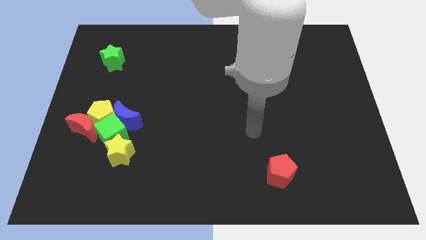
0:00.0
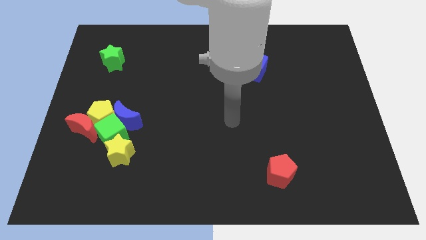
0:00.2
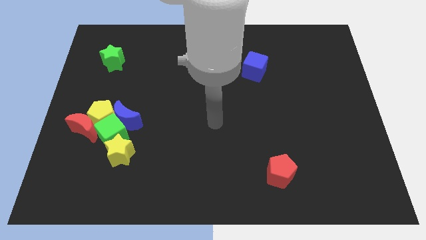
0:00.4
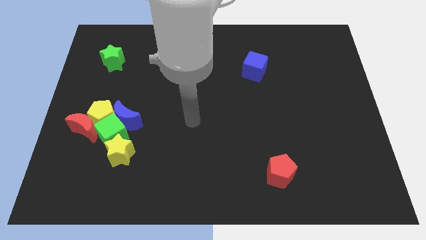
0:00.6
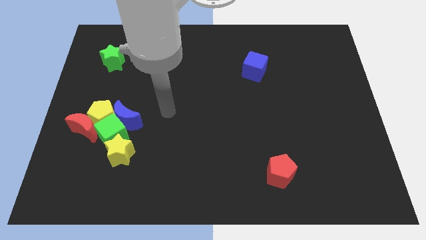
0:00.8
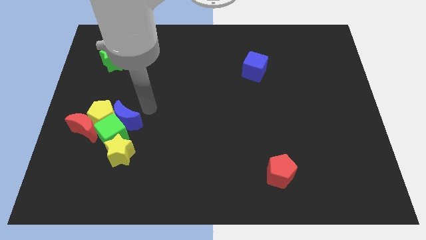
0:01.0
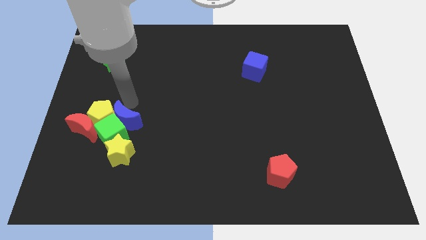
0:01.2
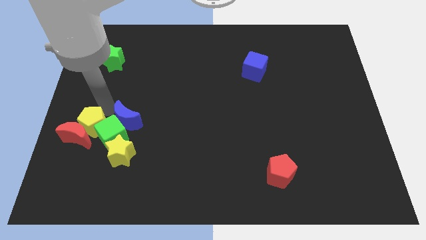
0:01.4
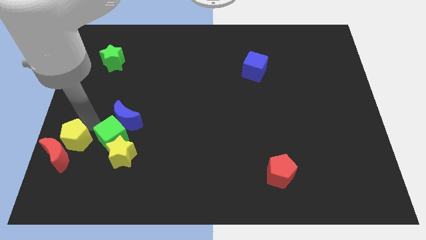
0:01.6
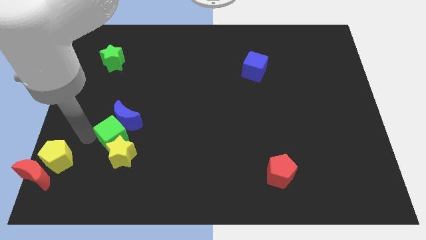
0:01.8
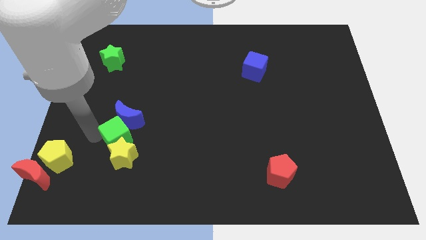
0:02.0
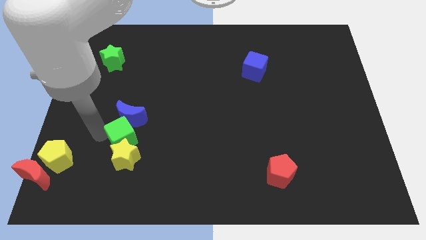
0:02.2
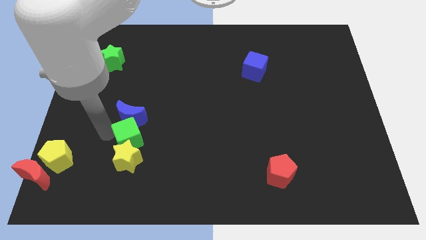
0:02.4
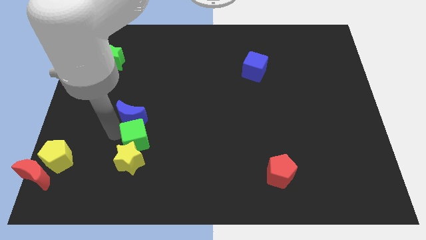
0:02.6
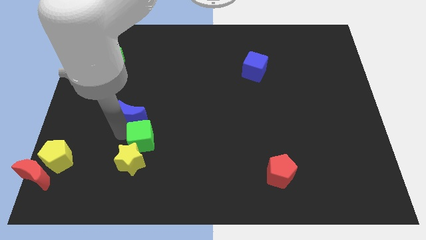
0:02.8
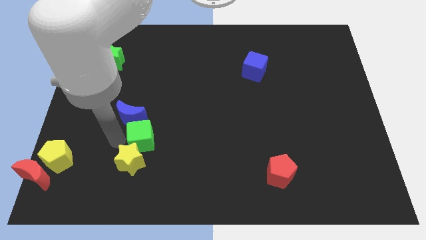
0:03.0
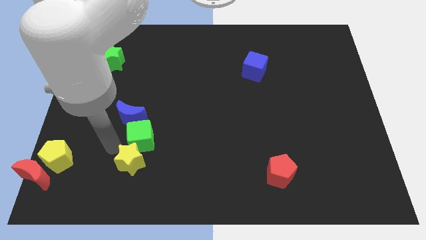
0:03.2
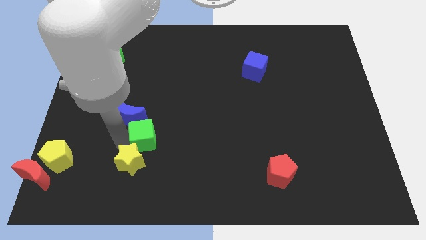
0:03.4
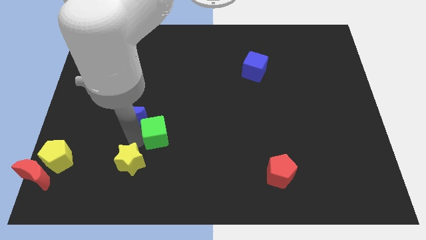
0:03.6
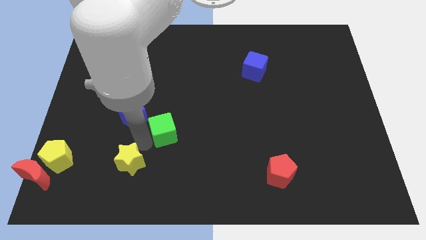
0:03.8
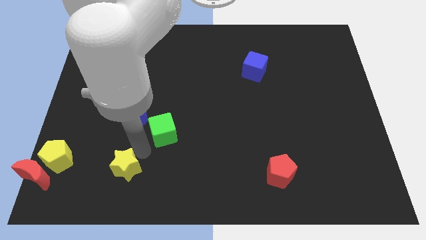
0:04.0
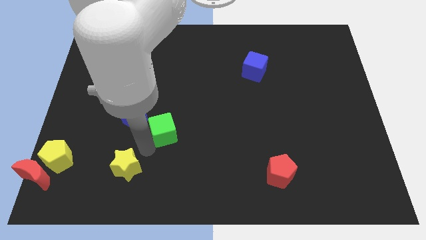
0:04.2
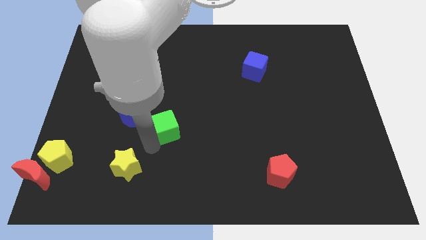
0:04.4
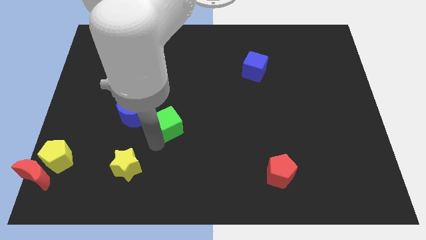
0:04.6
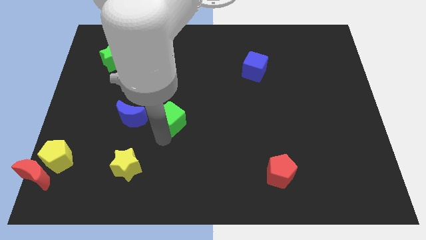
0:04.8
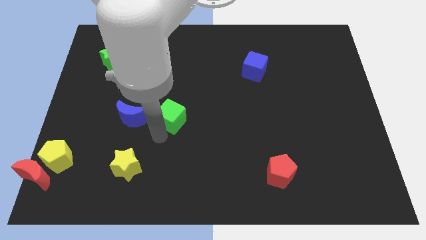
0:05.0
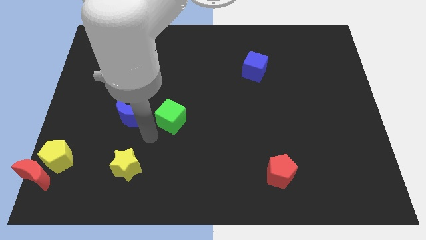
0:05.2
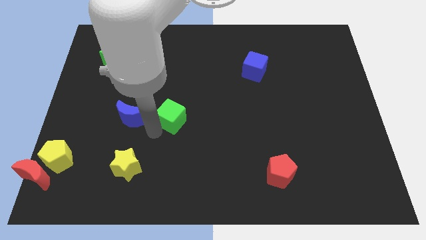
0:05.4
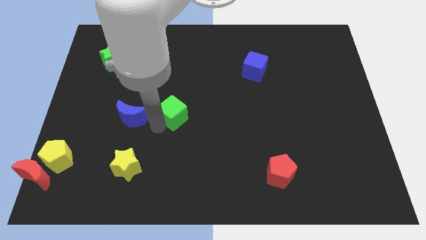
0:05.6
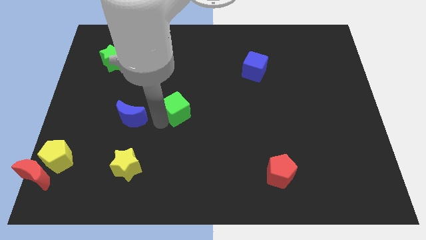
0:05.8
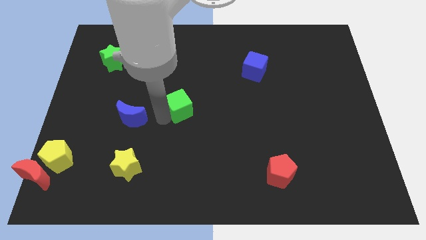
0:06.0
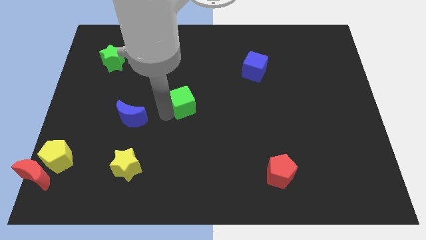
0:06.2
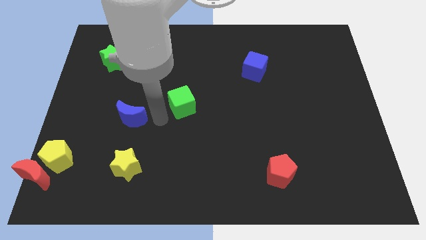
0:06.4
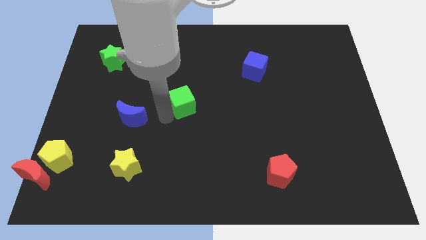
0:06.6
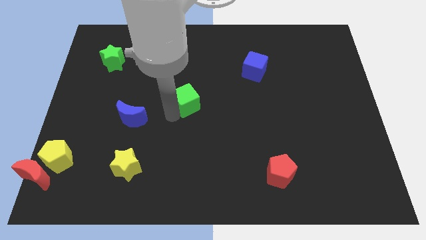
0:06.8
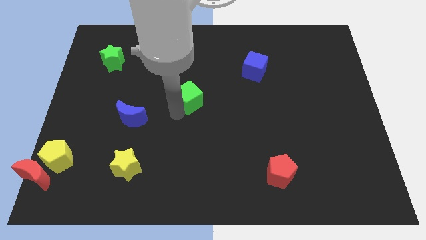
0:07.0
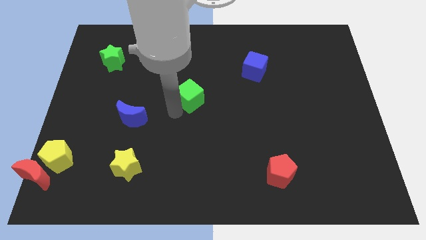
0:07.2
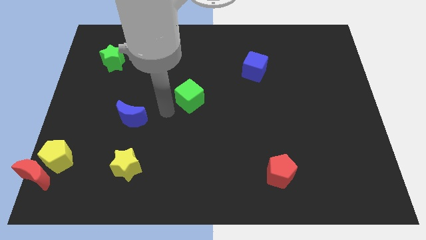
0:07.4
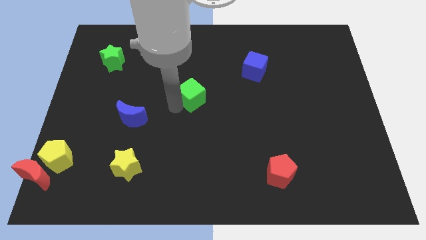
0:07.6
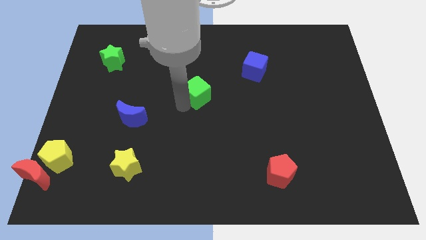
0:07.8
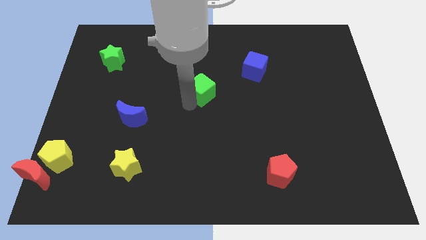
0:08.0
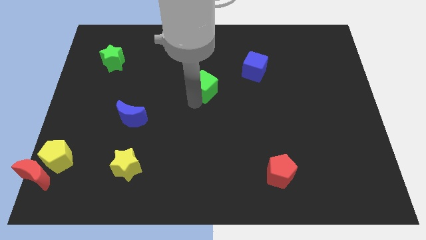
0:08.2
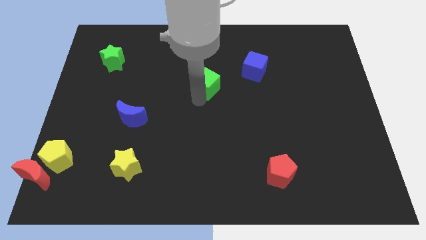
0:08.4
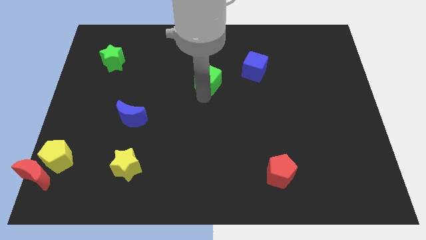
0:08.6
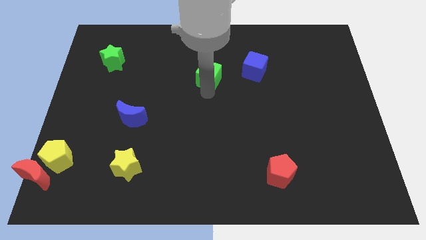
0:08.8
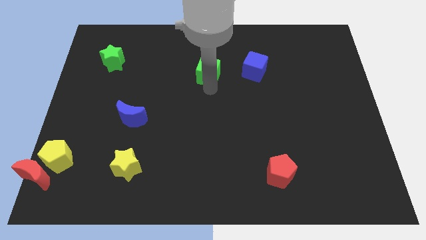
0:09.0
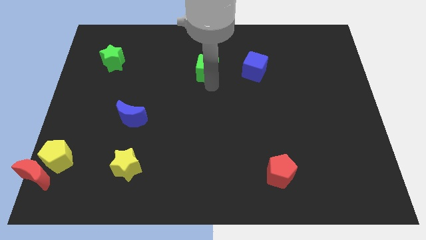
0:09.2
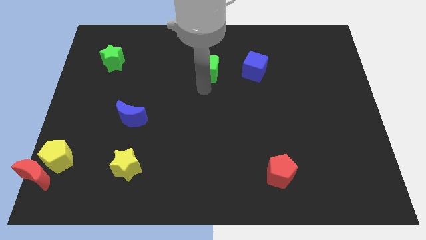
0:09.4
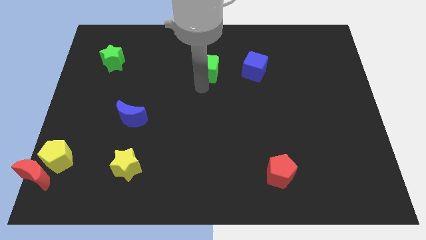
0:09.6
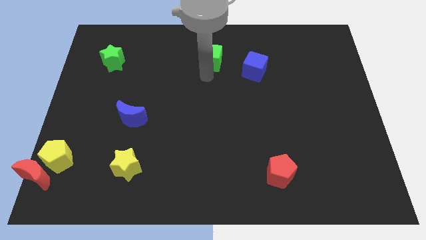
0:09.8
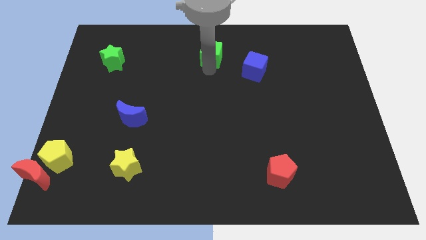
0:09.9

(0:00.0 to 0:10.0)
push the green cube to the top

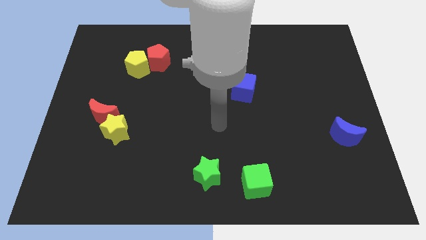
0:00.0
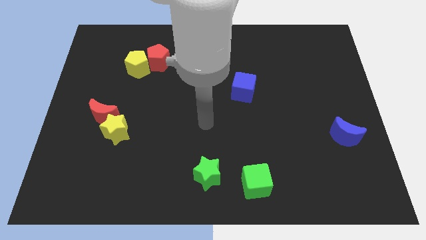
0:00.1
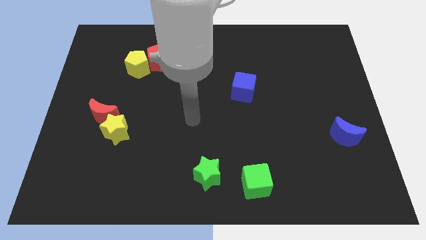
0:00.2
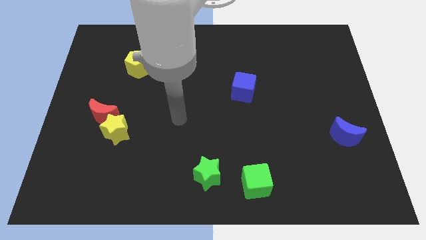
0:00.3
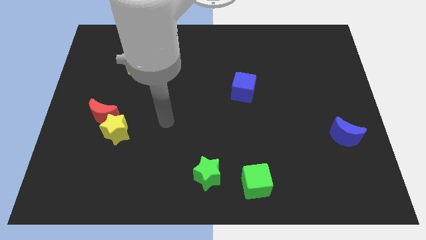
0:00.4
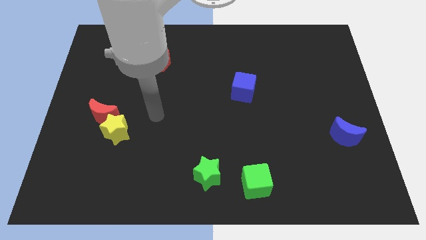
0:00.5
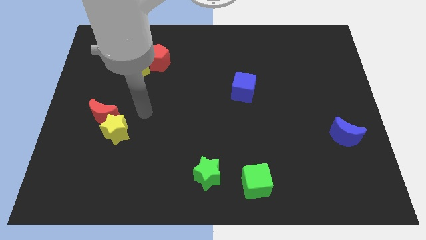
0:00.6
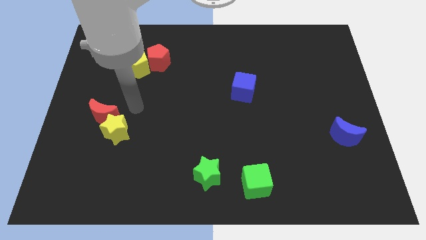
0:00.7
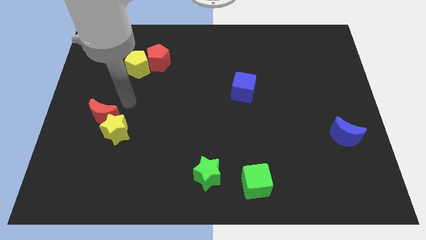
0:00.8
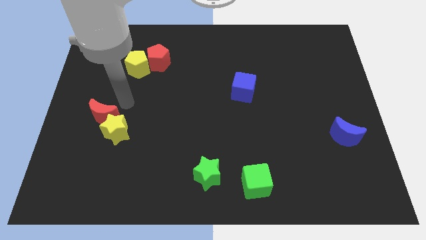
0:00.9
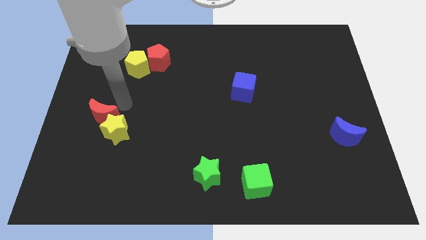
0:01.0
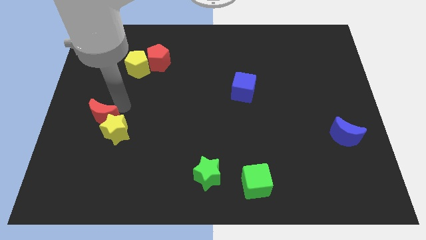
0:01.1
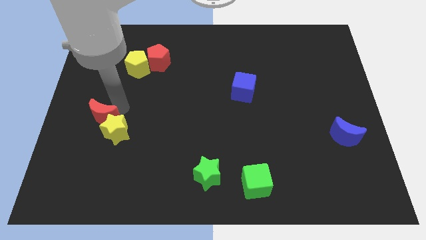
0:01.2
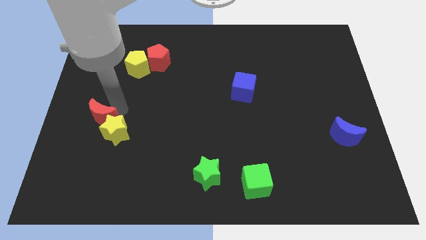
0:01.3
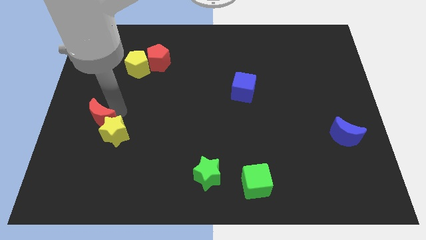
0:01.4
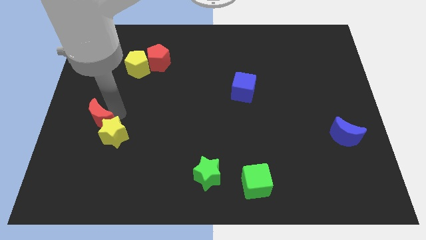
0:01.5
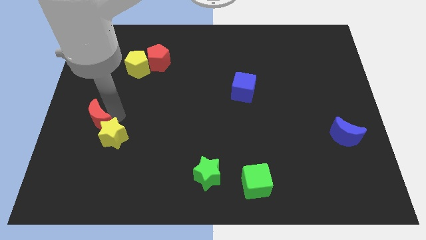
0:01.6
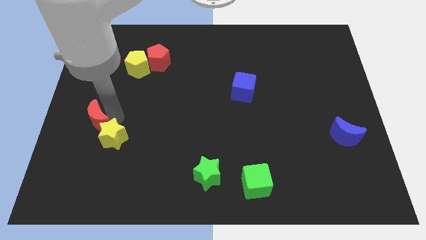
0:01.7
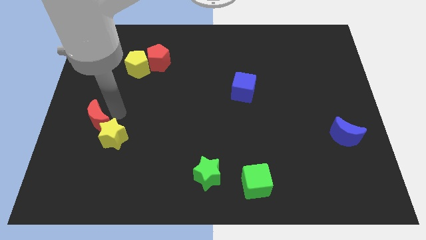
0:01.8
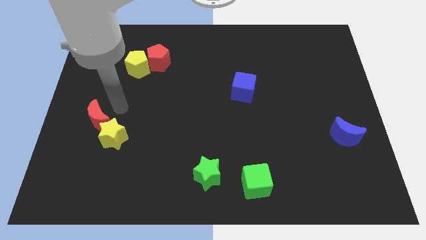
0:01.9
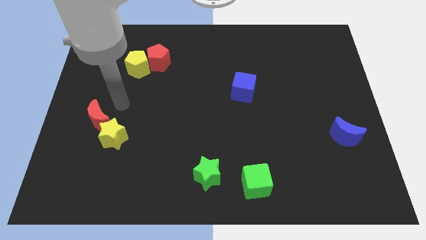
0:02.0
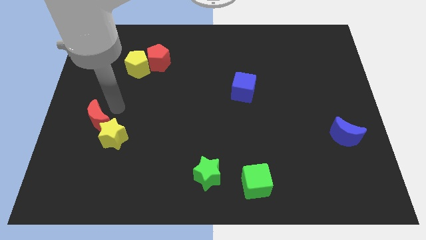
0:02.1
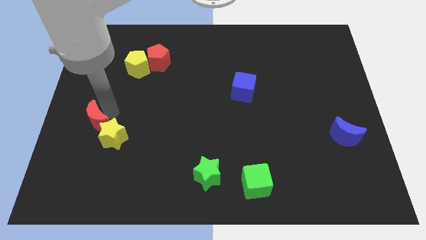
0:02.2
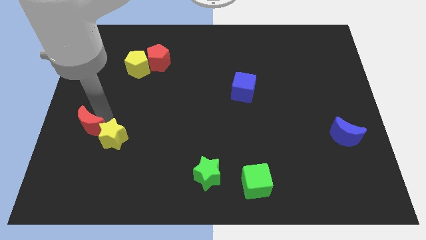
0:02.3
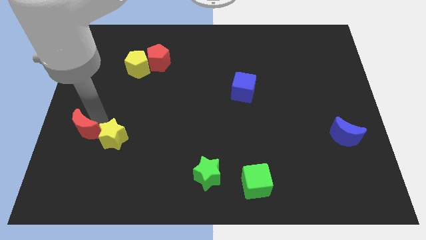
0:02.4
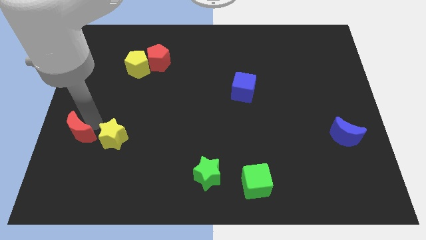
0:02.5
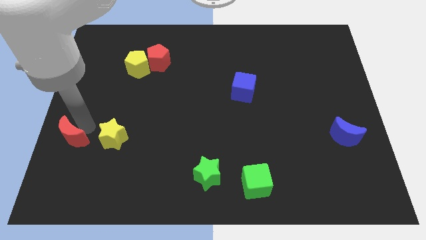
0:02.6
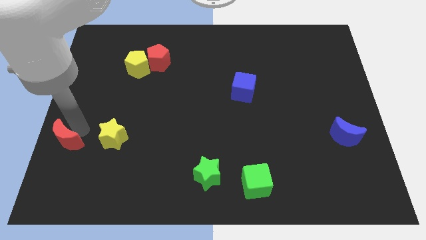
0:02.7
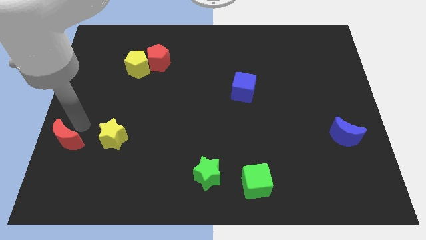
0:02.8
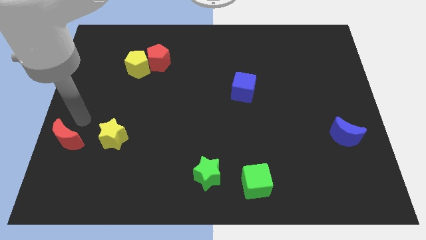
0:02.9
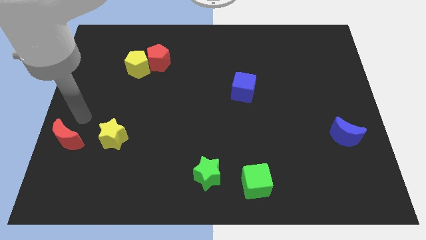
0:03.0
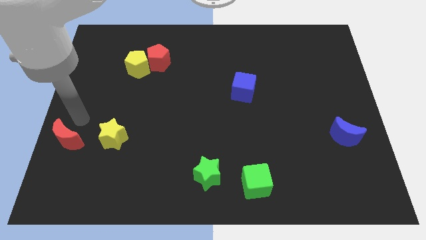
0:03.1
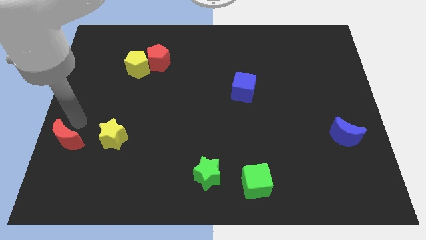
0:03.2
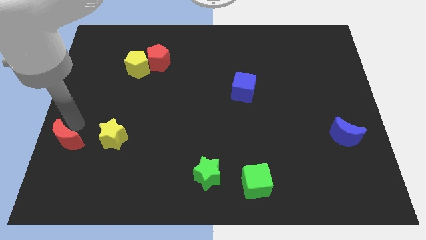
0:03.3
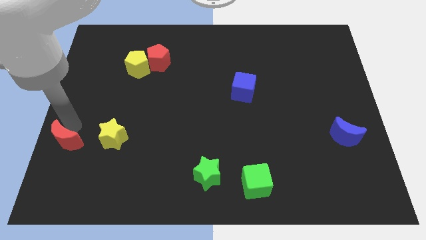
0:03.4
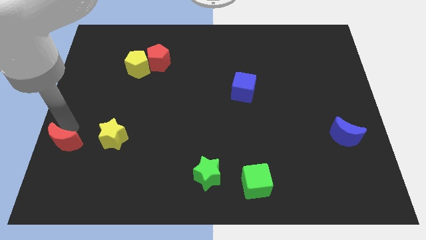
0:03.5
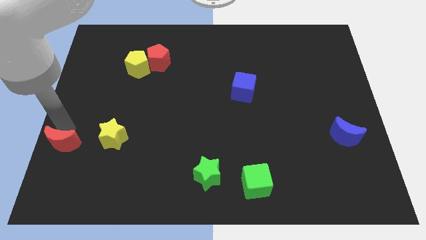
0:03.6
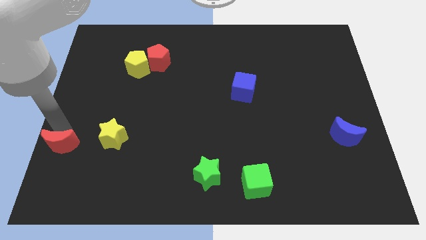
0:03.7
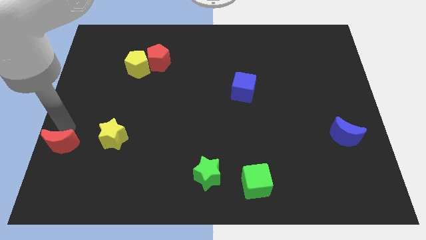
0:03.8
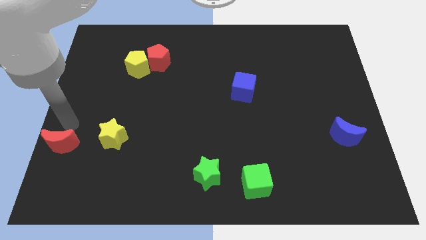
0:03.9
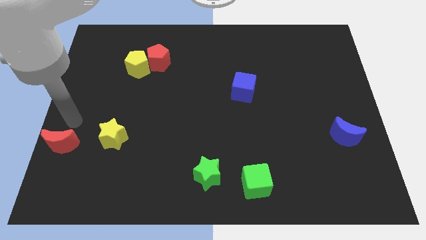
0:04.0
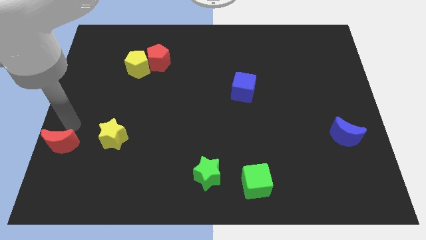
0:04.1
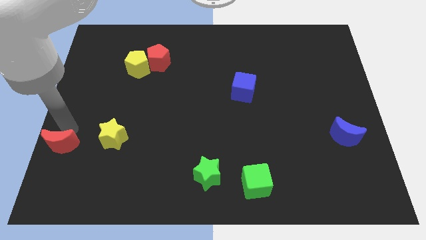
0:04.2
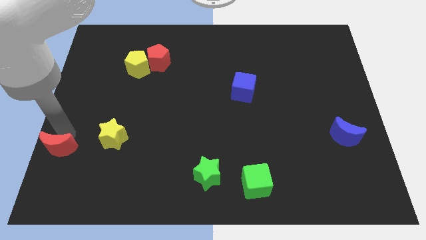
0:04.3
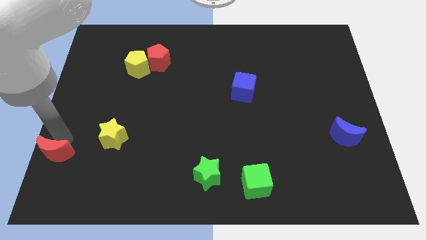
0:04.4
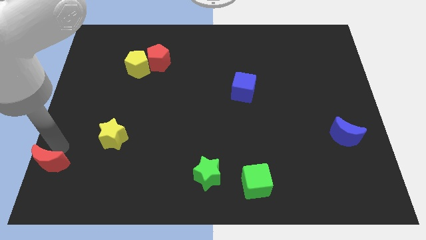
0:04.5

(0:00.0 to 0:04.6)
push the red moon to the bottom left
